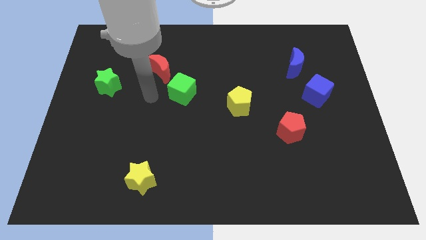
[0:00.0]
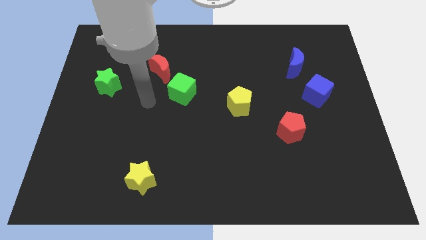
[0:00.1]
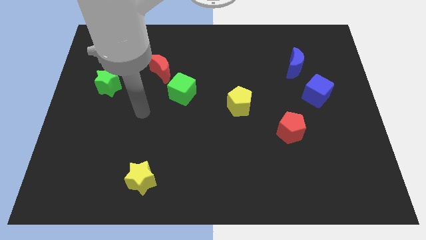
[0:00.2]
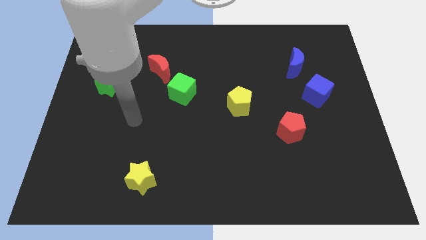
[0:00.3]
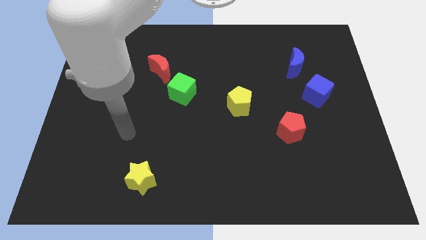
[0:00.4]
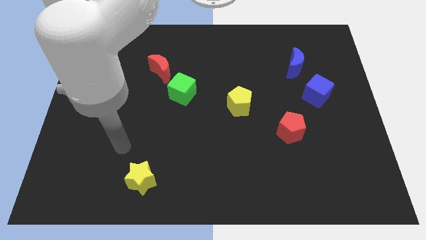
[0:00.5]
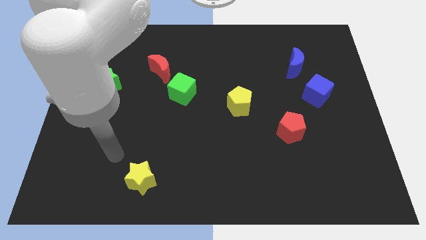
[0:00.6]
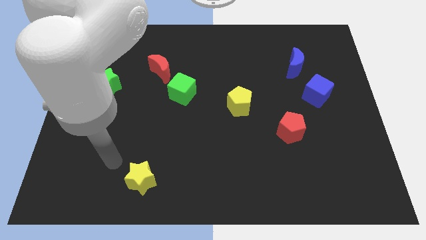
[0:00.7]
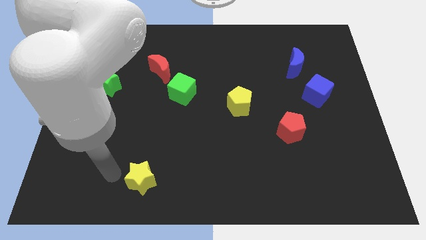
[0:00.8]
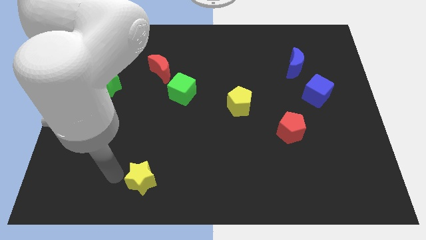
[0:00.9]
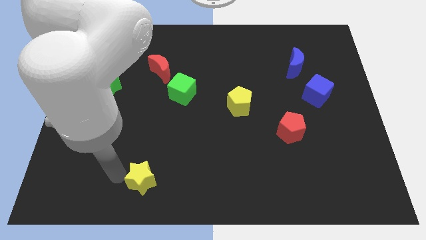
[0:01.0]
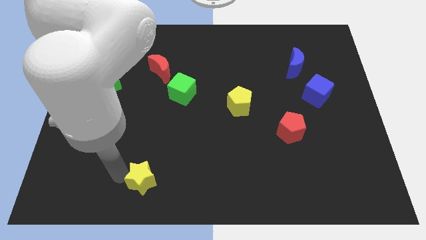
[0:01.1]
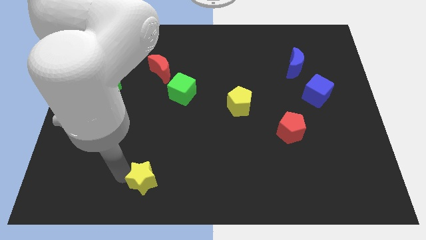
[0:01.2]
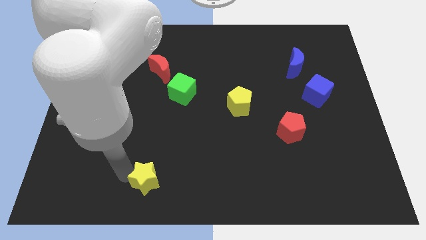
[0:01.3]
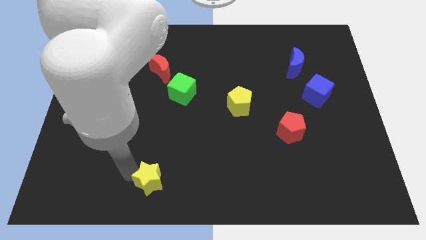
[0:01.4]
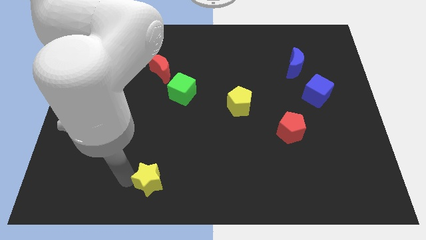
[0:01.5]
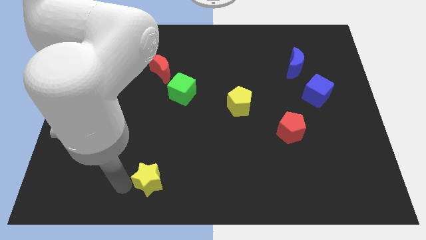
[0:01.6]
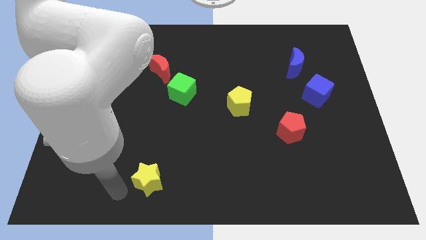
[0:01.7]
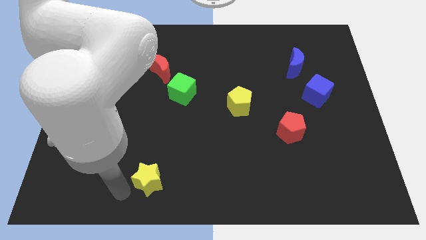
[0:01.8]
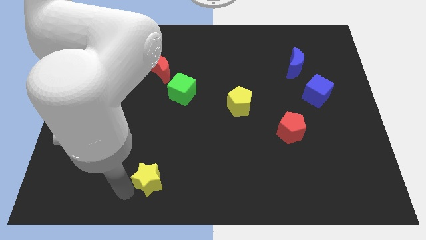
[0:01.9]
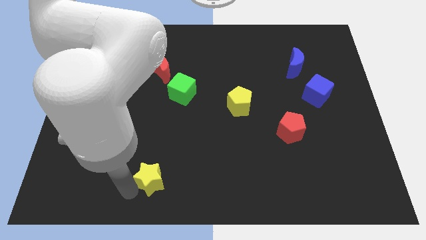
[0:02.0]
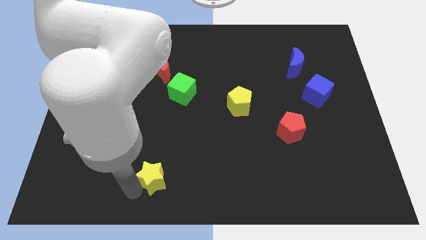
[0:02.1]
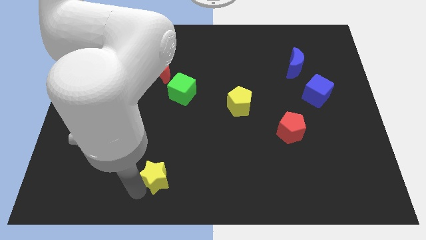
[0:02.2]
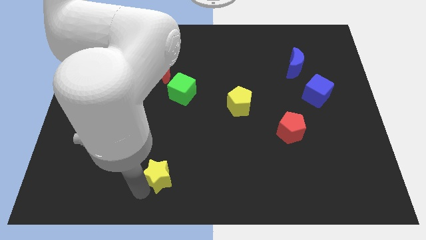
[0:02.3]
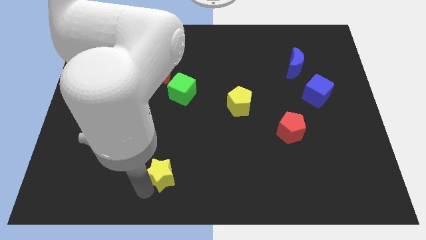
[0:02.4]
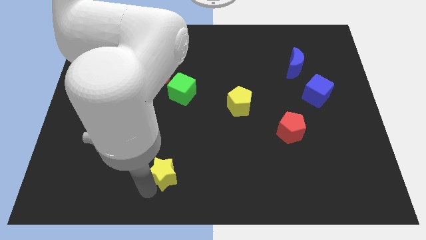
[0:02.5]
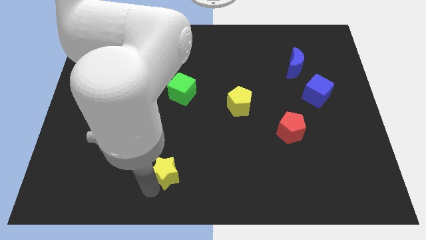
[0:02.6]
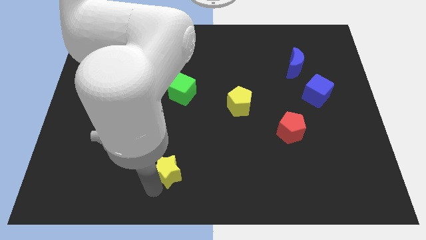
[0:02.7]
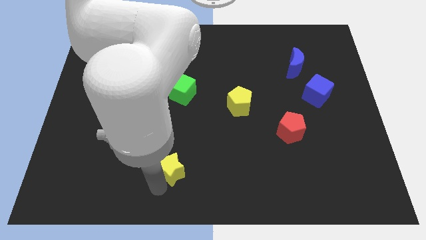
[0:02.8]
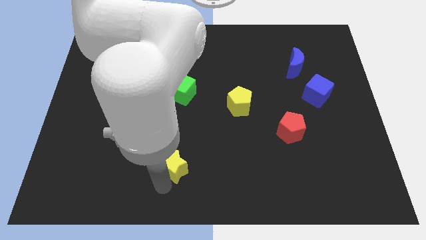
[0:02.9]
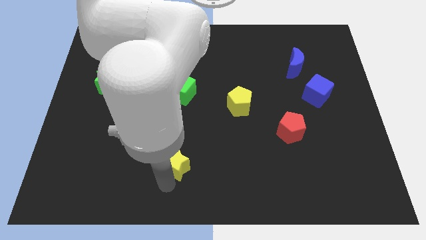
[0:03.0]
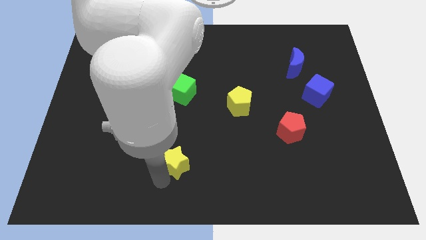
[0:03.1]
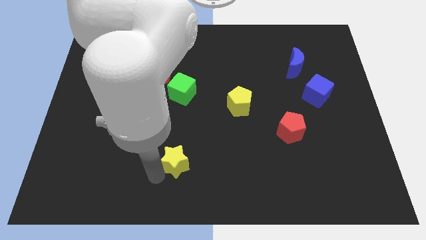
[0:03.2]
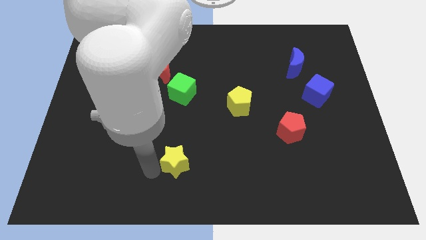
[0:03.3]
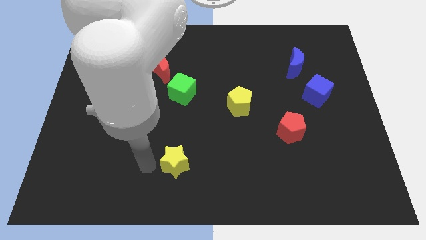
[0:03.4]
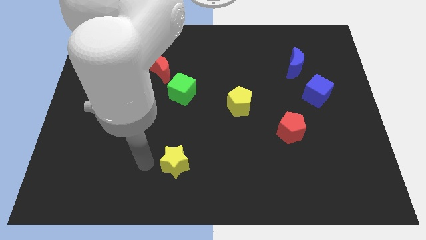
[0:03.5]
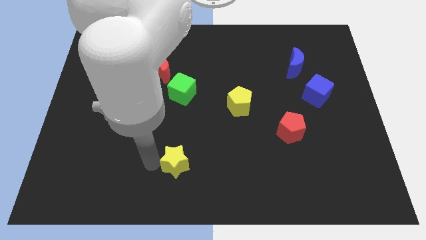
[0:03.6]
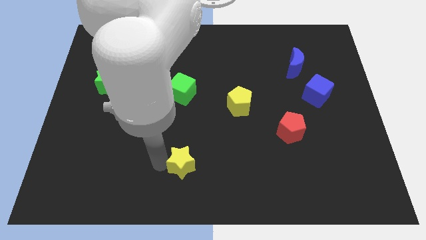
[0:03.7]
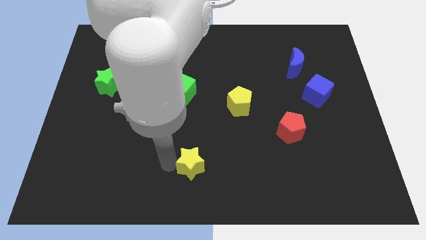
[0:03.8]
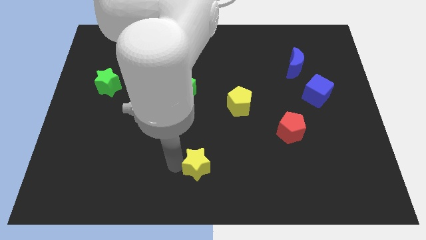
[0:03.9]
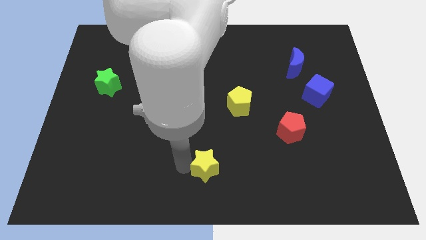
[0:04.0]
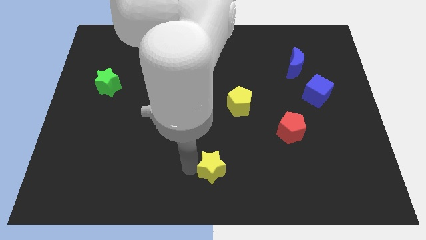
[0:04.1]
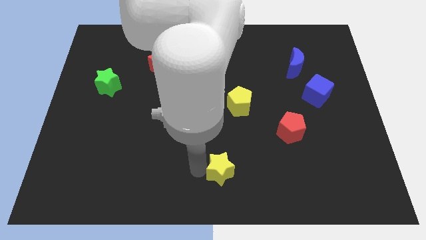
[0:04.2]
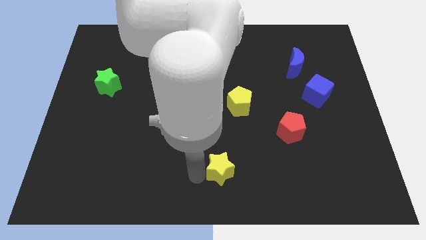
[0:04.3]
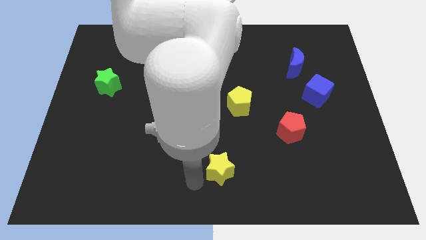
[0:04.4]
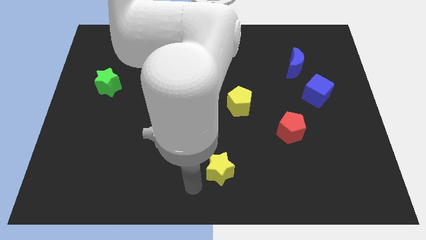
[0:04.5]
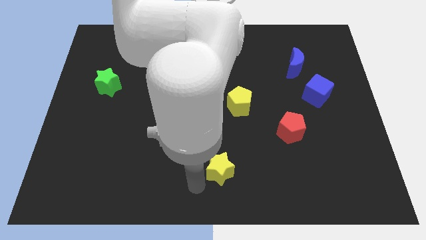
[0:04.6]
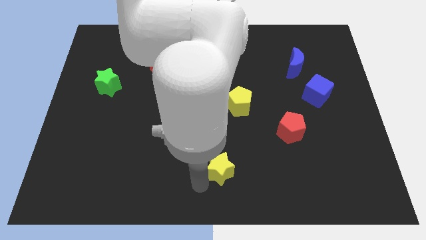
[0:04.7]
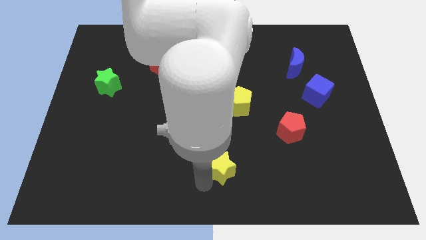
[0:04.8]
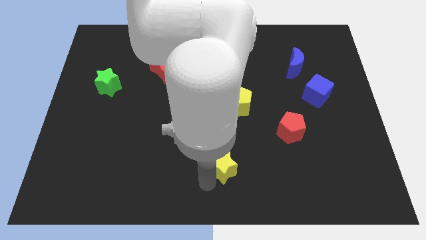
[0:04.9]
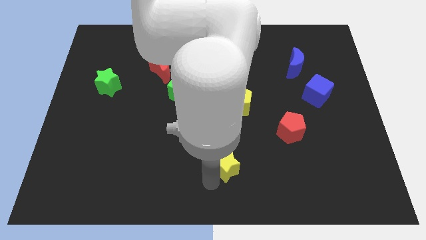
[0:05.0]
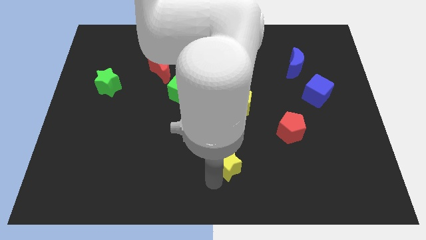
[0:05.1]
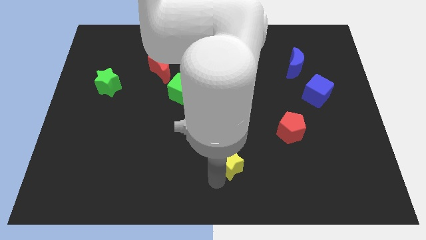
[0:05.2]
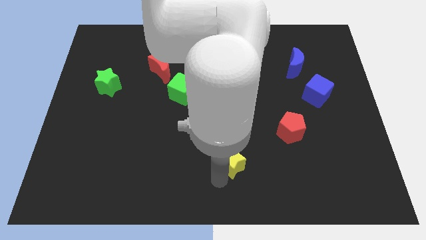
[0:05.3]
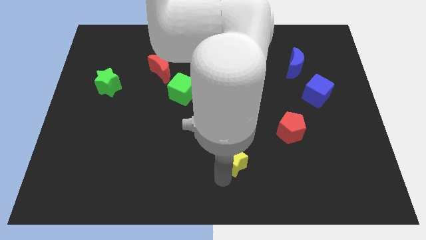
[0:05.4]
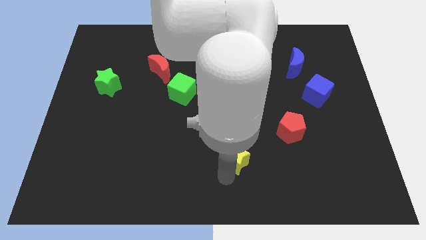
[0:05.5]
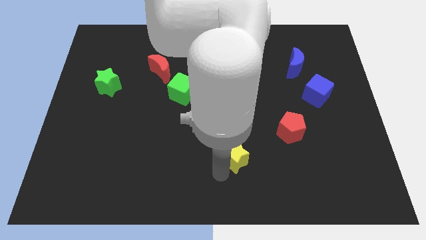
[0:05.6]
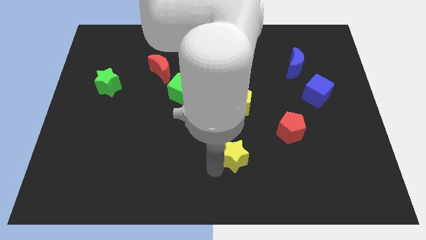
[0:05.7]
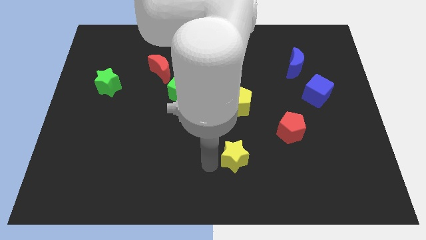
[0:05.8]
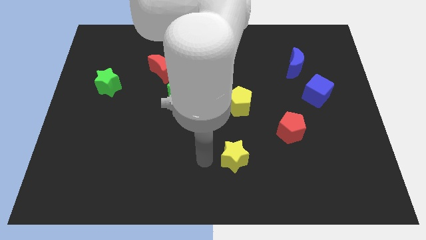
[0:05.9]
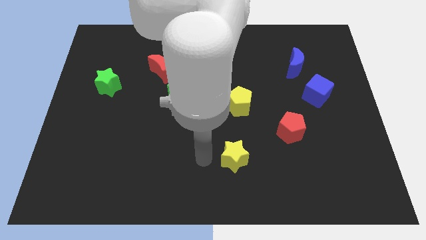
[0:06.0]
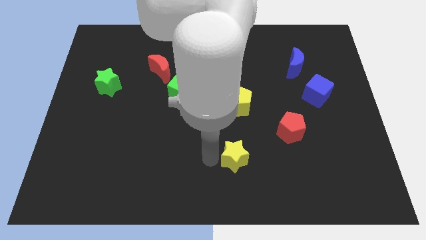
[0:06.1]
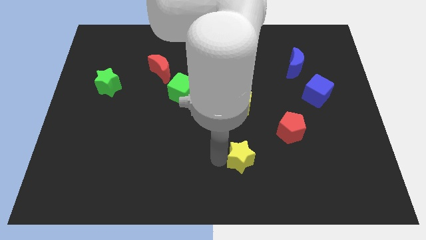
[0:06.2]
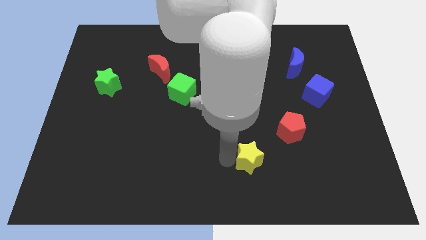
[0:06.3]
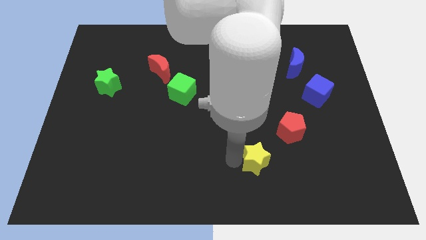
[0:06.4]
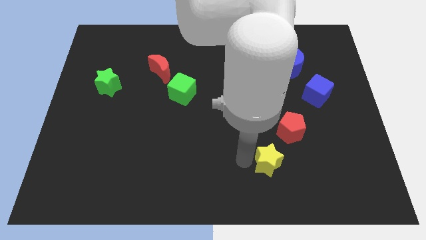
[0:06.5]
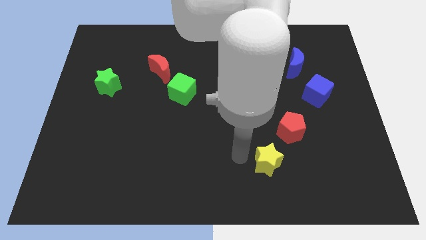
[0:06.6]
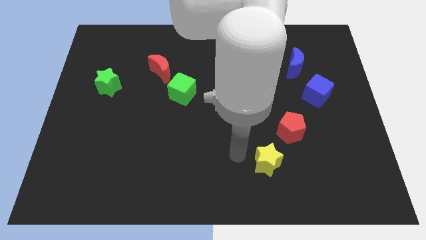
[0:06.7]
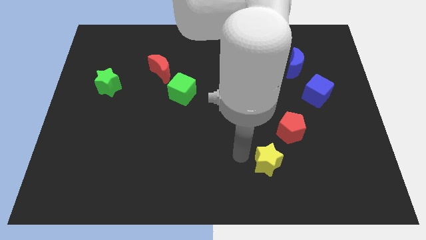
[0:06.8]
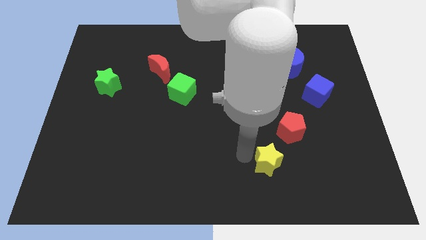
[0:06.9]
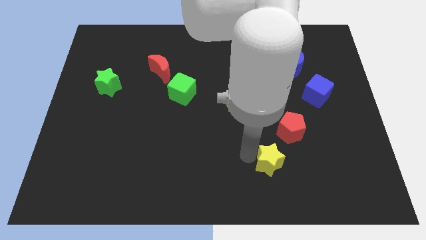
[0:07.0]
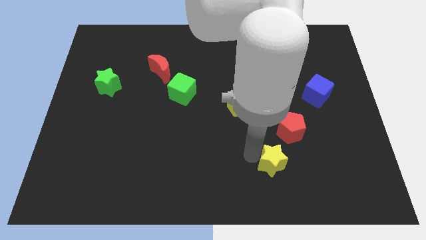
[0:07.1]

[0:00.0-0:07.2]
put the yellow star to the bottom of the red pentagon

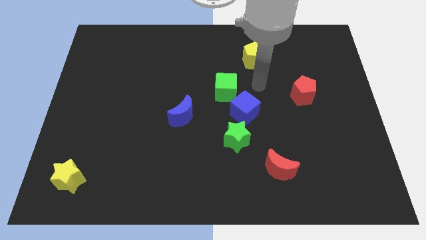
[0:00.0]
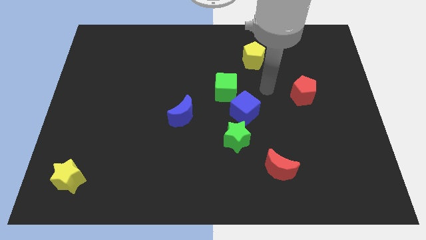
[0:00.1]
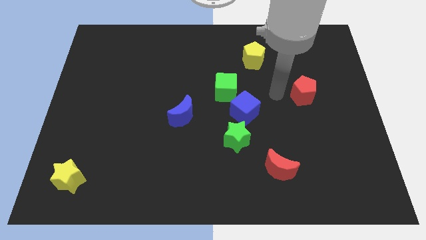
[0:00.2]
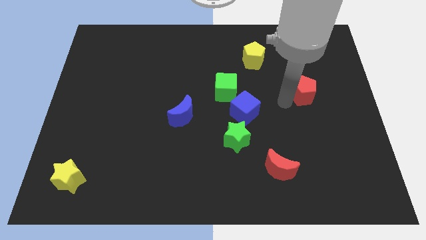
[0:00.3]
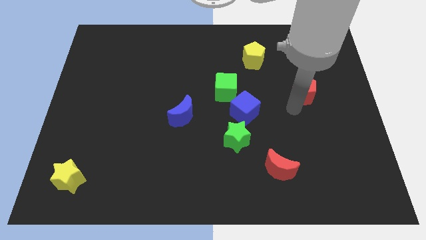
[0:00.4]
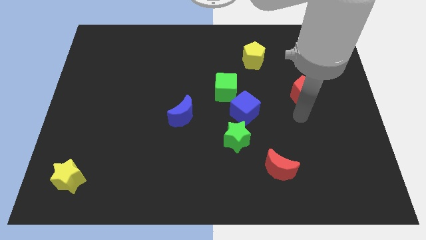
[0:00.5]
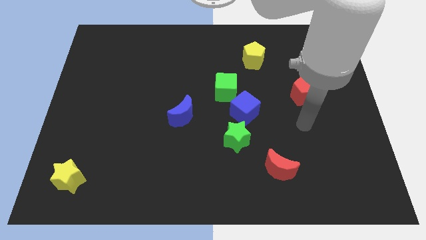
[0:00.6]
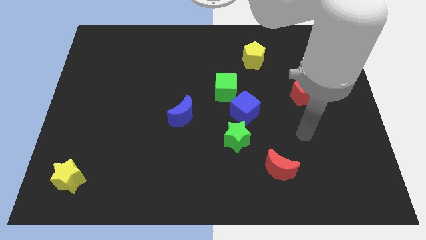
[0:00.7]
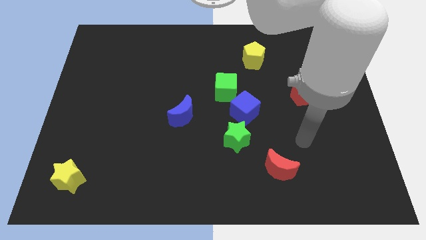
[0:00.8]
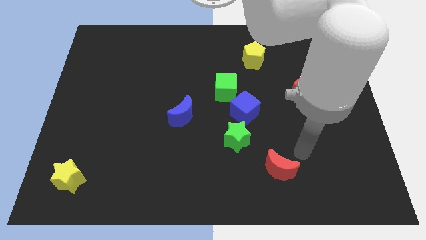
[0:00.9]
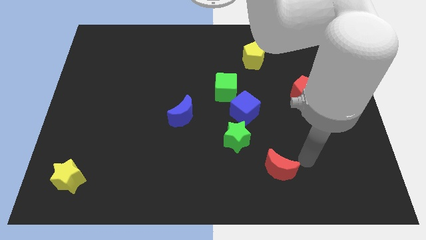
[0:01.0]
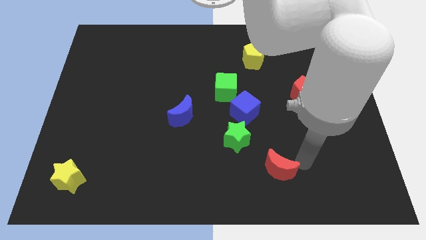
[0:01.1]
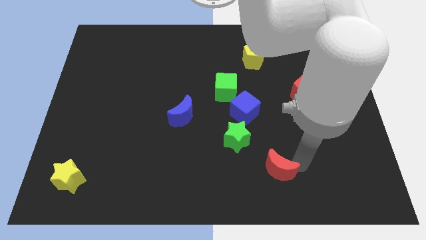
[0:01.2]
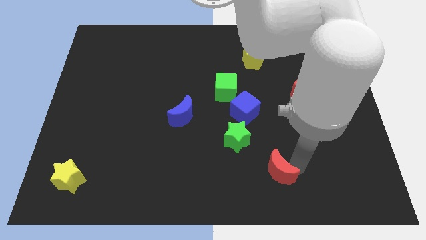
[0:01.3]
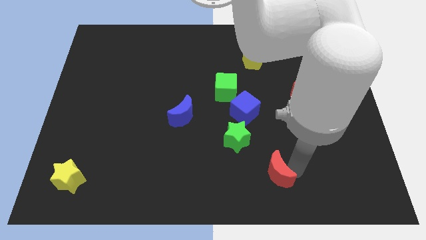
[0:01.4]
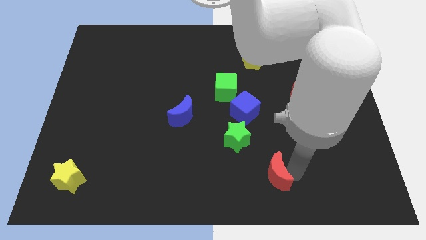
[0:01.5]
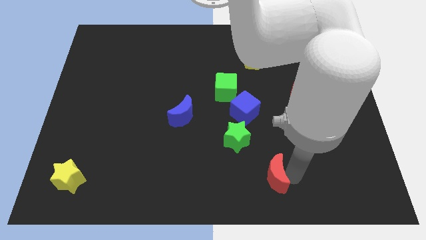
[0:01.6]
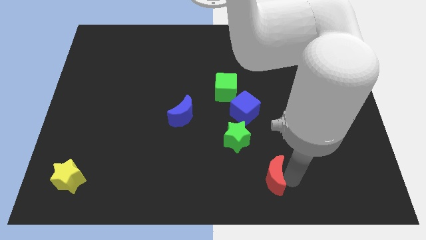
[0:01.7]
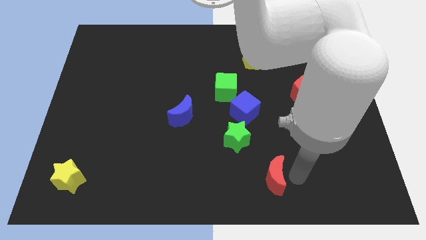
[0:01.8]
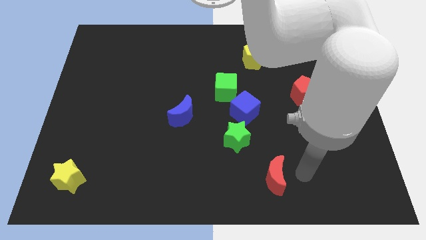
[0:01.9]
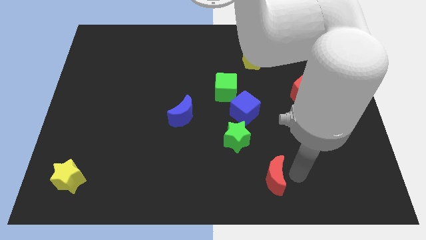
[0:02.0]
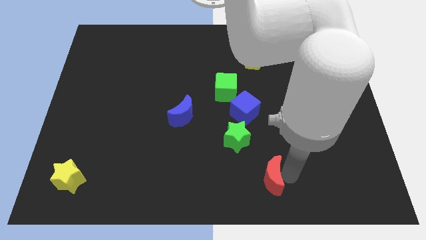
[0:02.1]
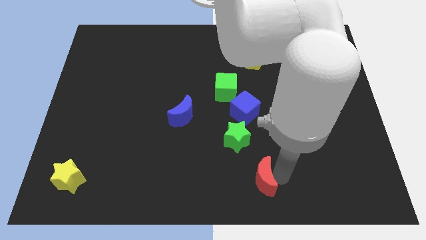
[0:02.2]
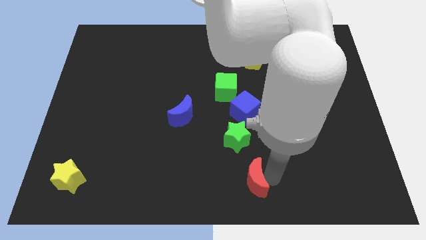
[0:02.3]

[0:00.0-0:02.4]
put the red moon below the green star
